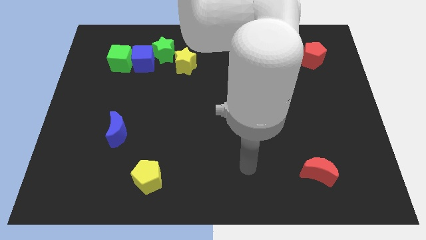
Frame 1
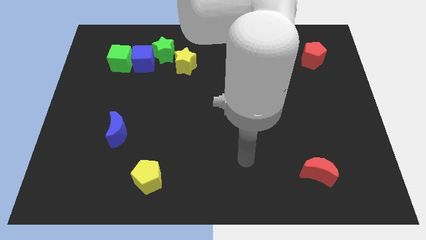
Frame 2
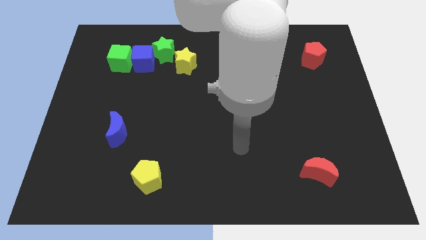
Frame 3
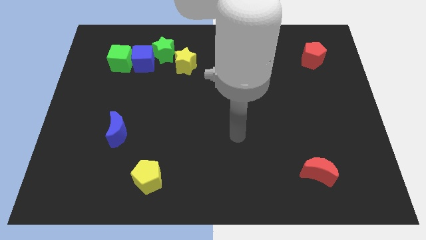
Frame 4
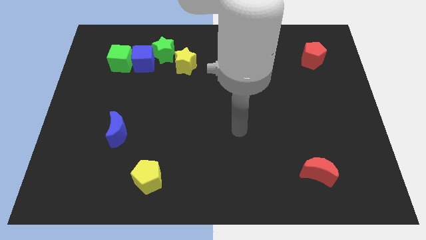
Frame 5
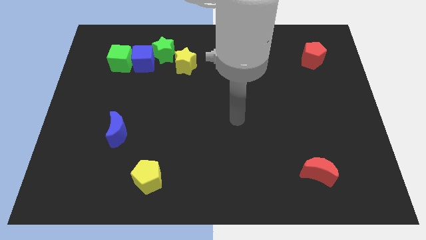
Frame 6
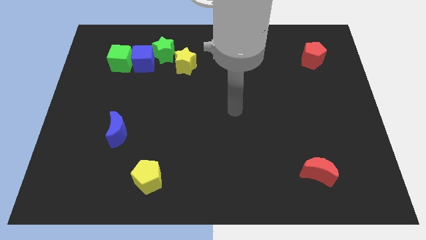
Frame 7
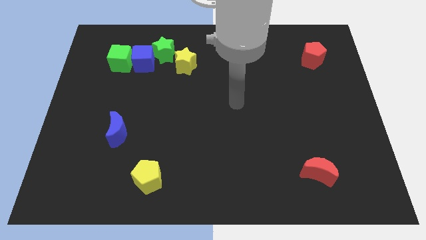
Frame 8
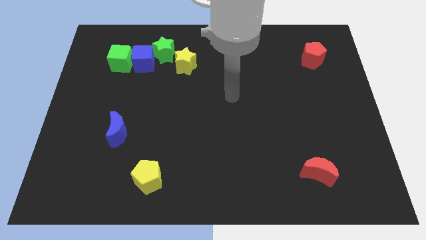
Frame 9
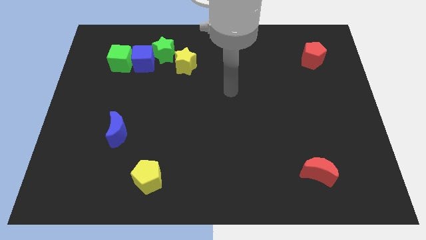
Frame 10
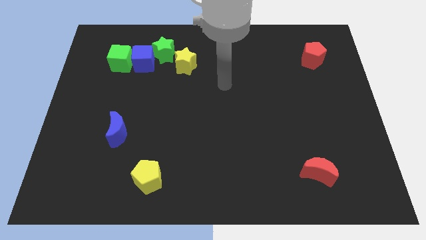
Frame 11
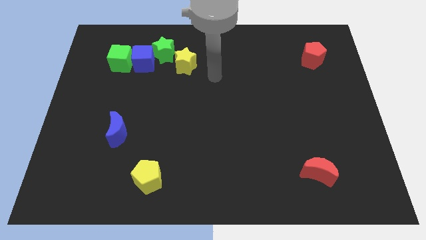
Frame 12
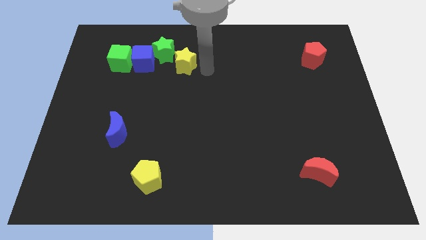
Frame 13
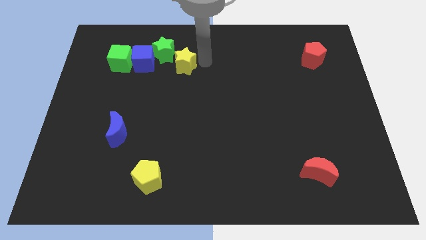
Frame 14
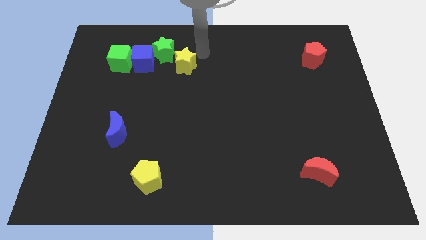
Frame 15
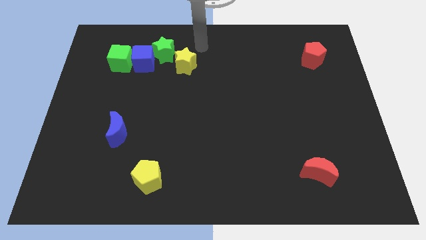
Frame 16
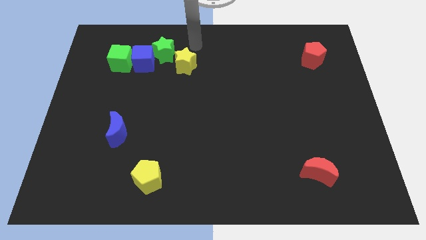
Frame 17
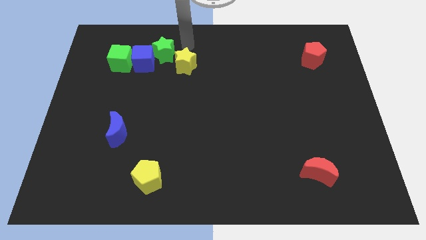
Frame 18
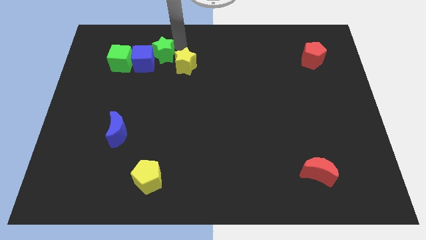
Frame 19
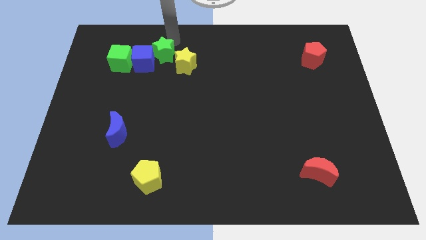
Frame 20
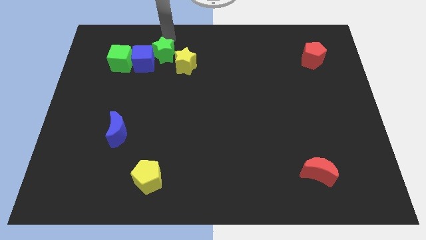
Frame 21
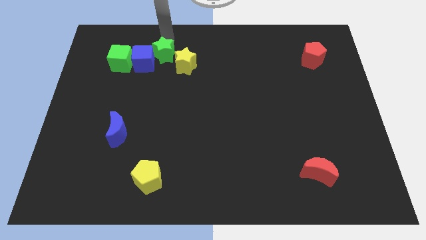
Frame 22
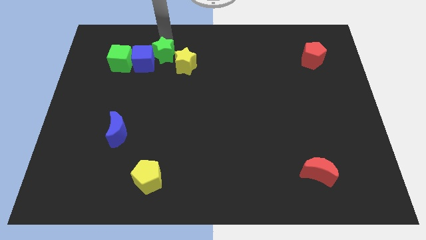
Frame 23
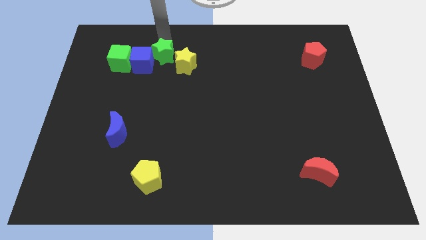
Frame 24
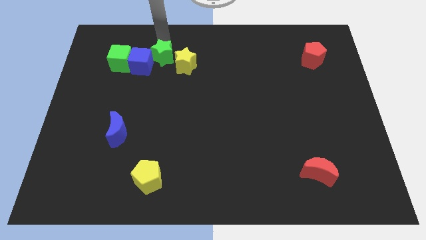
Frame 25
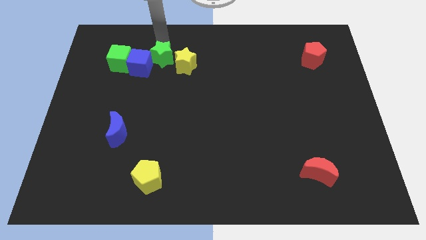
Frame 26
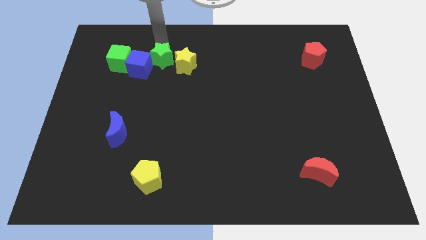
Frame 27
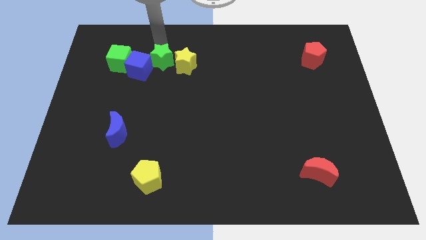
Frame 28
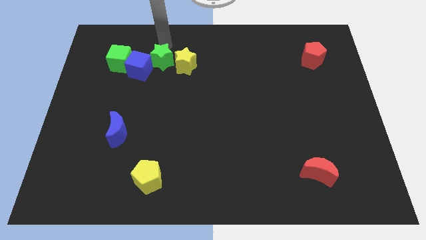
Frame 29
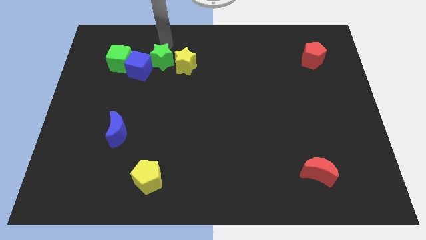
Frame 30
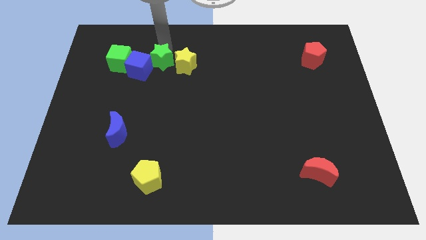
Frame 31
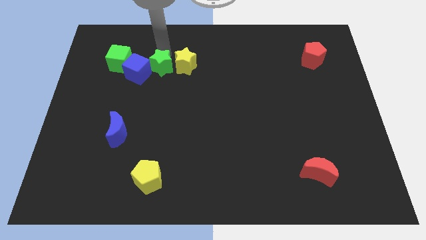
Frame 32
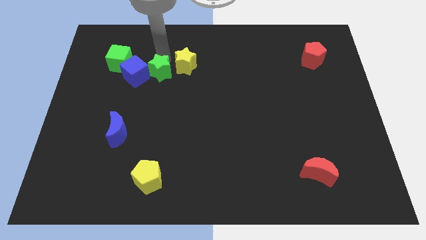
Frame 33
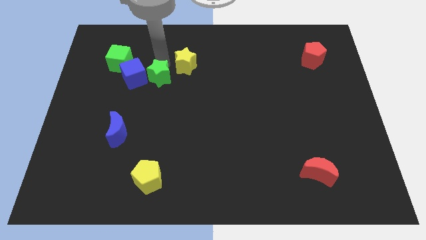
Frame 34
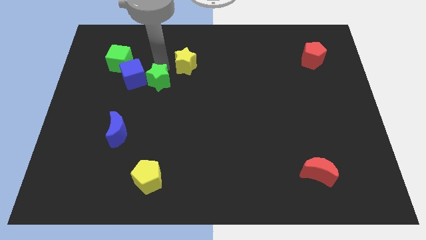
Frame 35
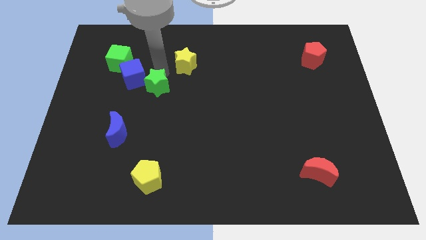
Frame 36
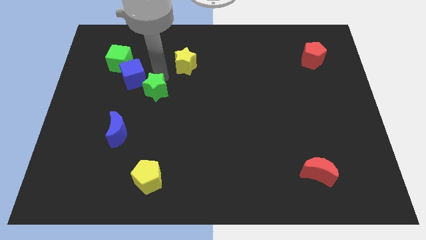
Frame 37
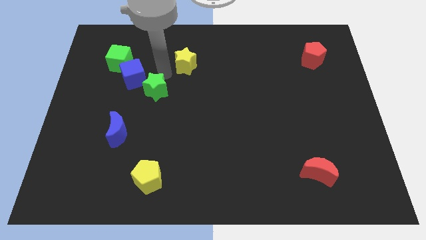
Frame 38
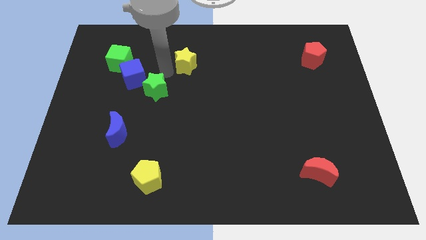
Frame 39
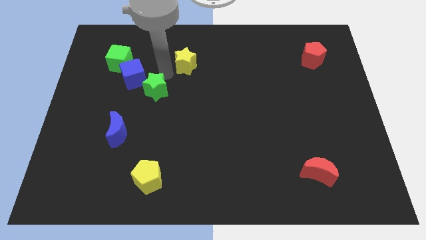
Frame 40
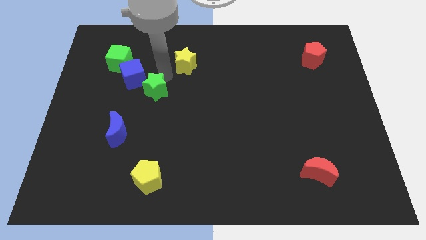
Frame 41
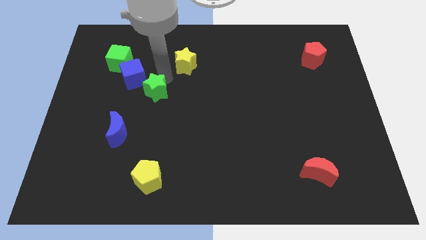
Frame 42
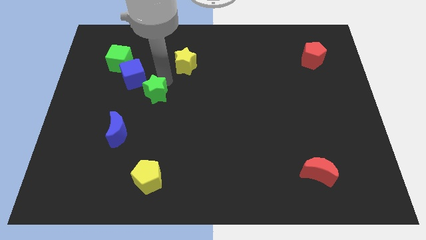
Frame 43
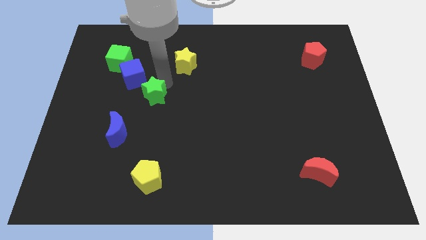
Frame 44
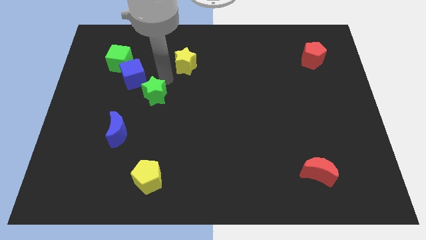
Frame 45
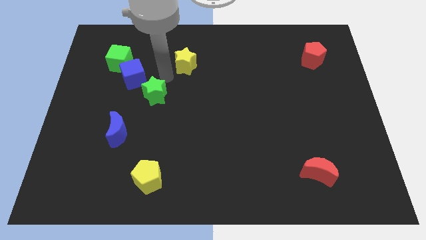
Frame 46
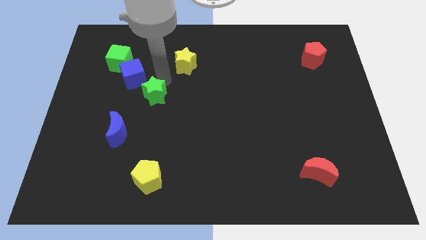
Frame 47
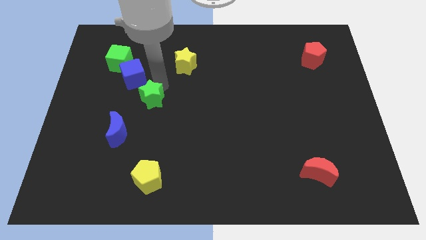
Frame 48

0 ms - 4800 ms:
slide the green star to the top right of the blue moon

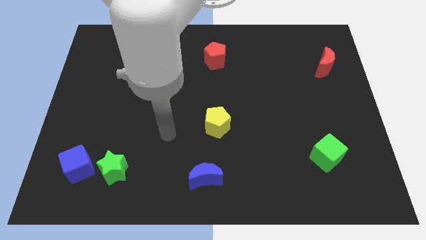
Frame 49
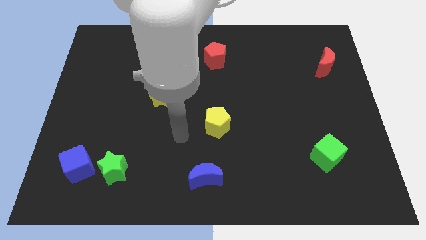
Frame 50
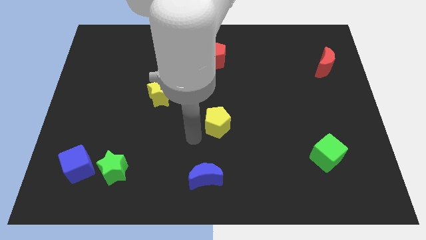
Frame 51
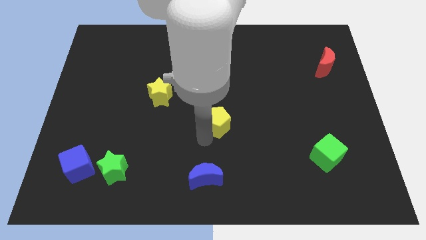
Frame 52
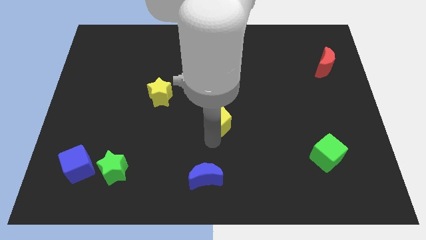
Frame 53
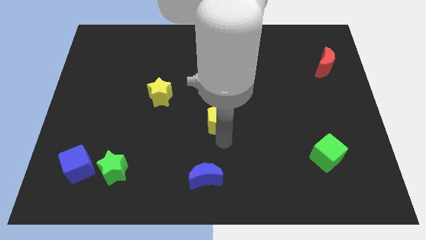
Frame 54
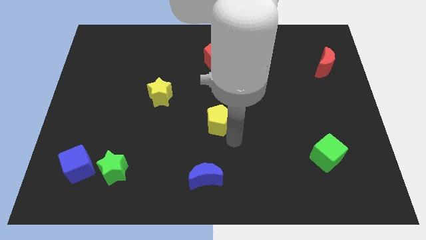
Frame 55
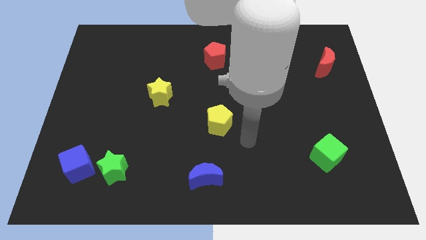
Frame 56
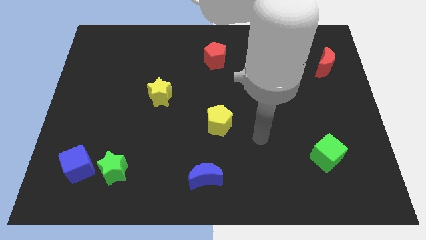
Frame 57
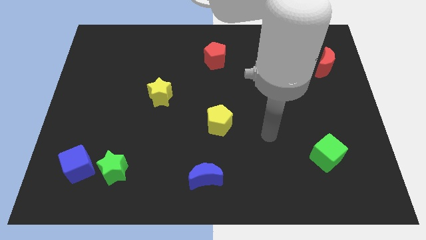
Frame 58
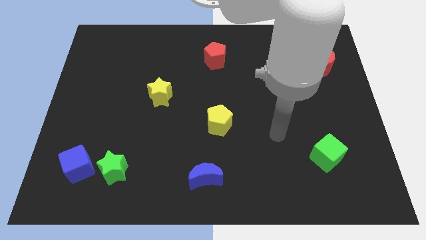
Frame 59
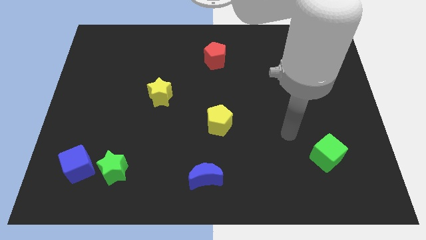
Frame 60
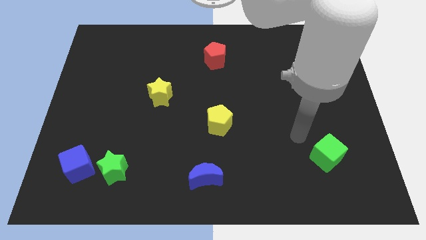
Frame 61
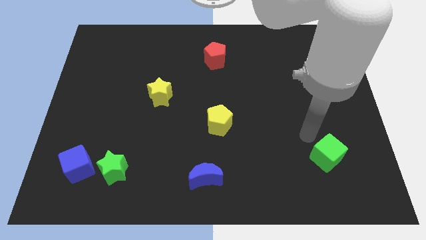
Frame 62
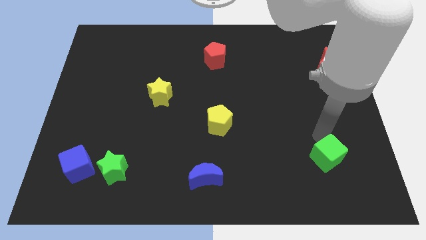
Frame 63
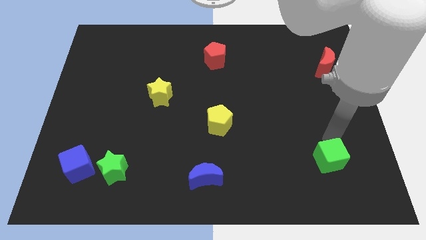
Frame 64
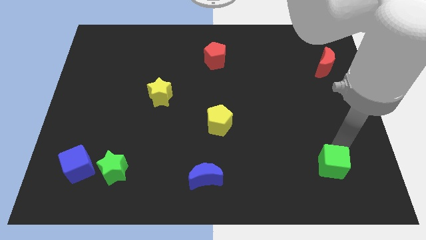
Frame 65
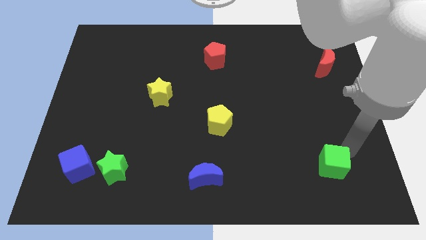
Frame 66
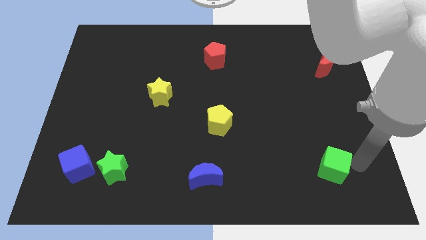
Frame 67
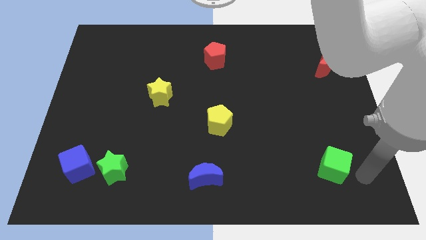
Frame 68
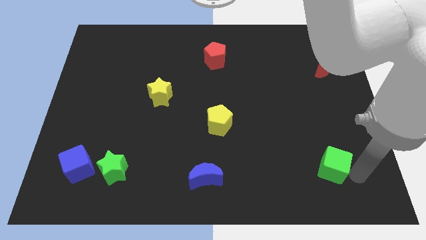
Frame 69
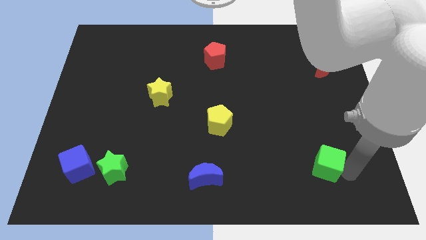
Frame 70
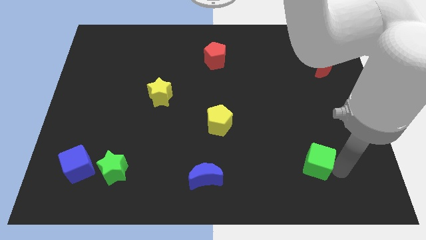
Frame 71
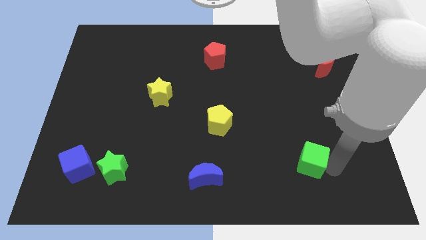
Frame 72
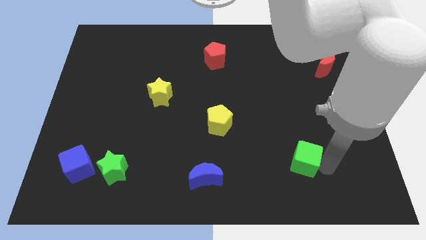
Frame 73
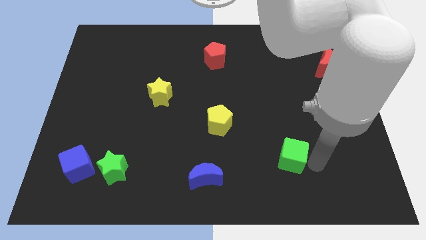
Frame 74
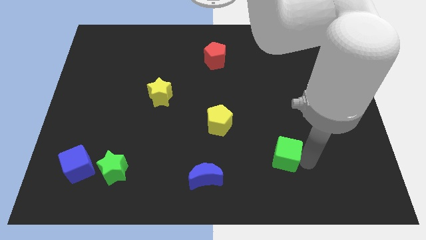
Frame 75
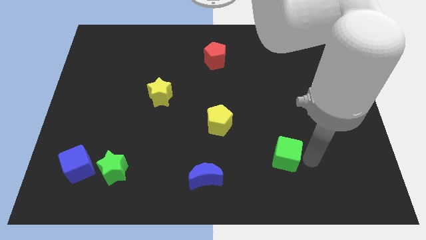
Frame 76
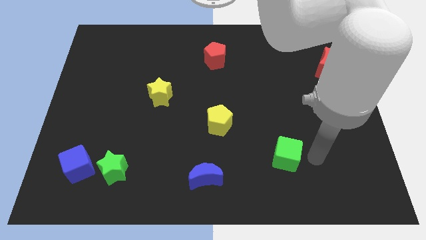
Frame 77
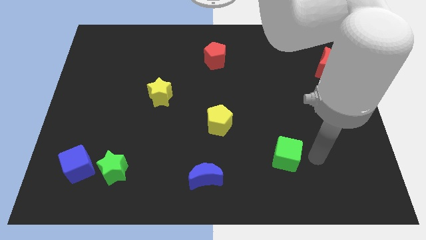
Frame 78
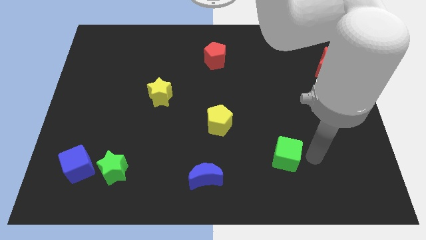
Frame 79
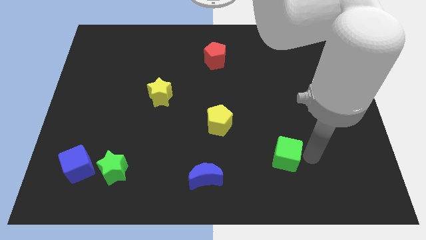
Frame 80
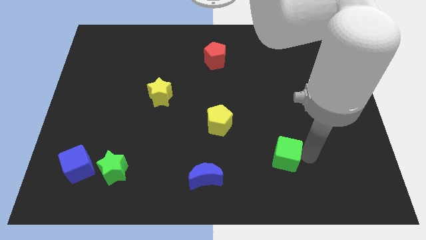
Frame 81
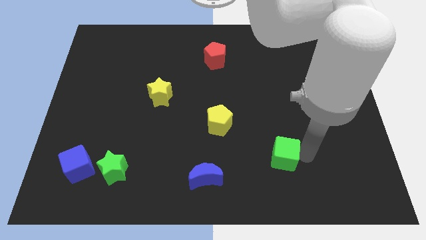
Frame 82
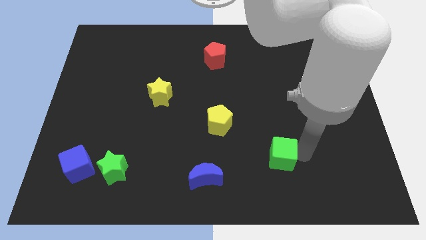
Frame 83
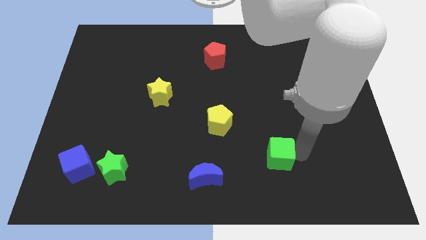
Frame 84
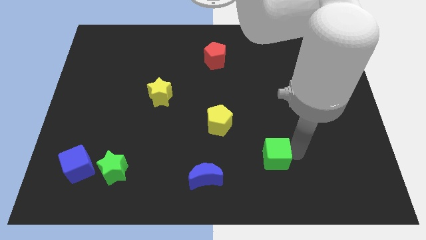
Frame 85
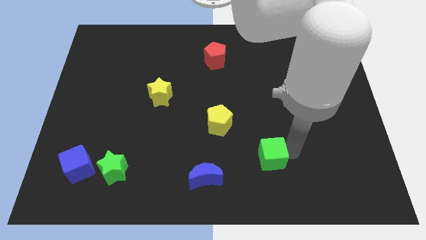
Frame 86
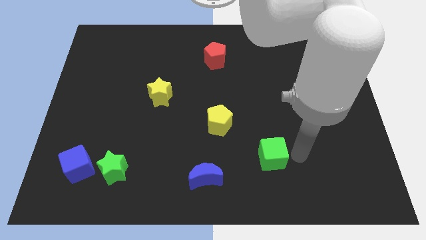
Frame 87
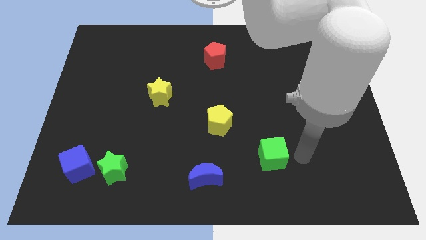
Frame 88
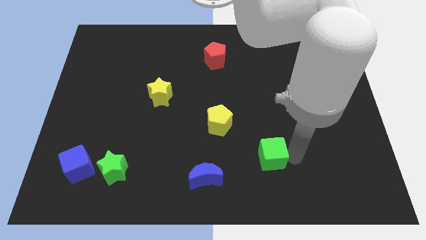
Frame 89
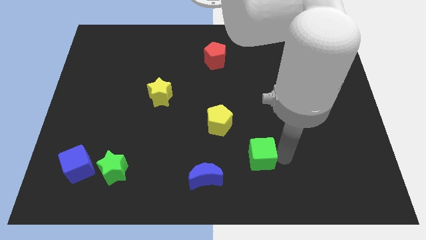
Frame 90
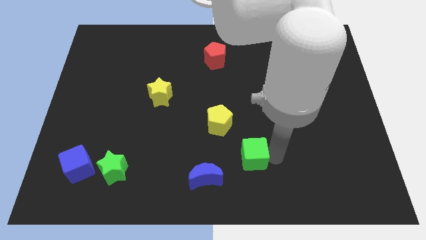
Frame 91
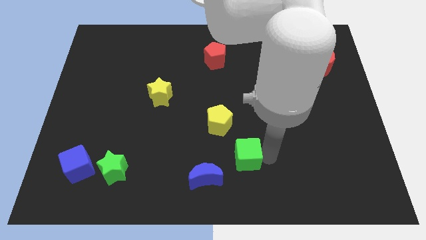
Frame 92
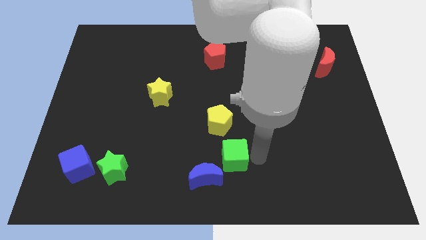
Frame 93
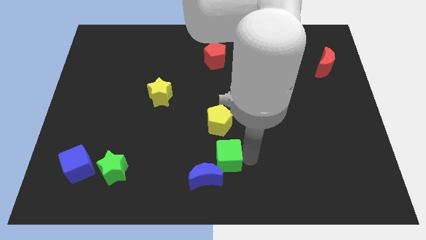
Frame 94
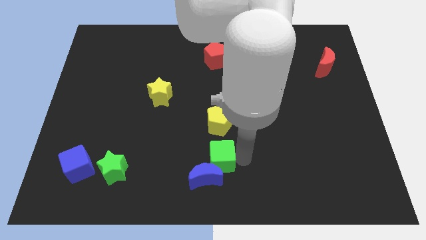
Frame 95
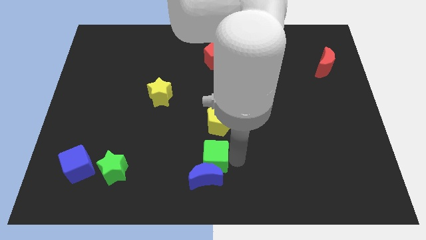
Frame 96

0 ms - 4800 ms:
put the green cube to the top left of the blue moon
